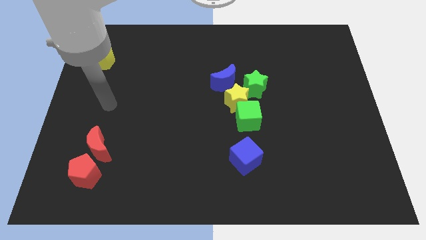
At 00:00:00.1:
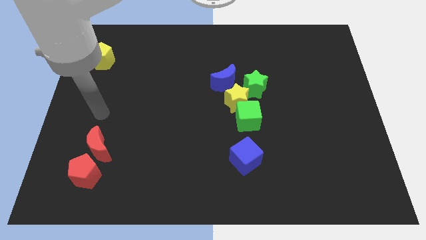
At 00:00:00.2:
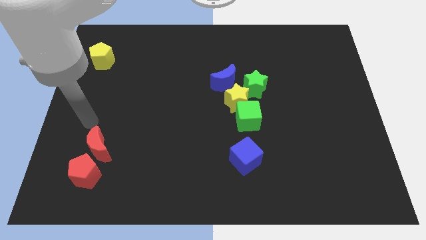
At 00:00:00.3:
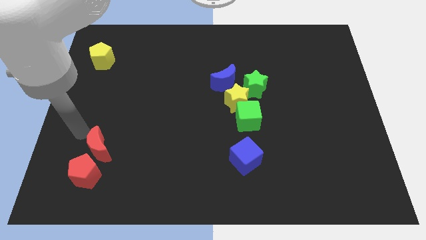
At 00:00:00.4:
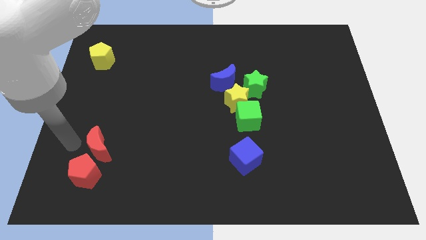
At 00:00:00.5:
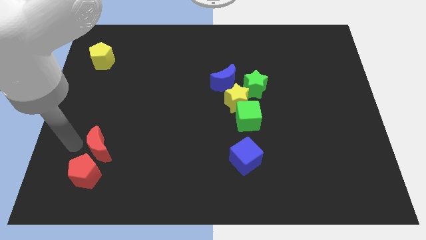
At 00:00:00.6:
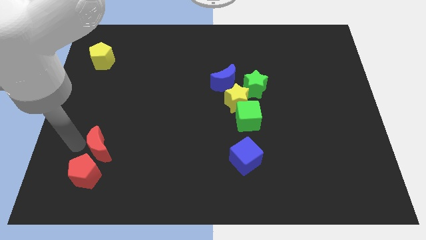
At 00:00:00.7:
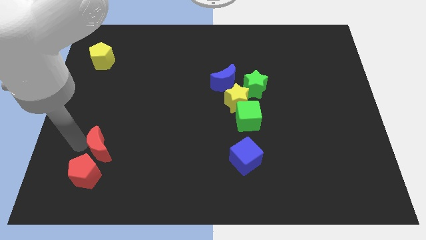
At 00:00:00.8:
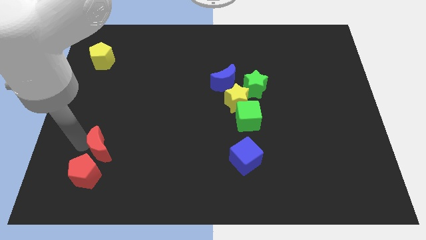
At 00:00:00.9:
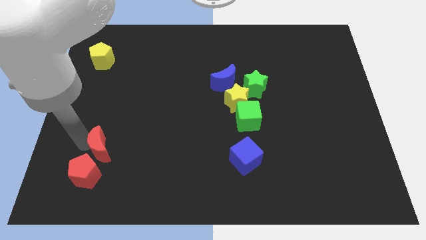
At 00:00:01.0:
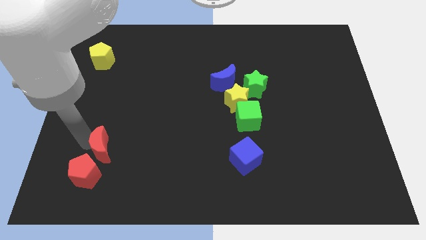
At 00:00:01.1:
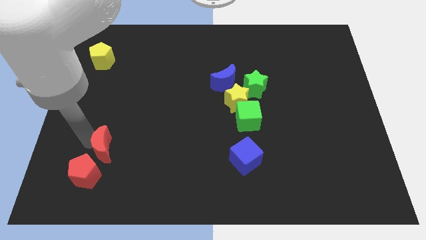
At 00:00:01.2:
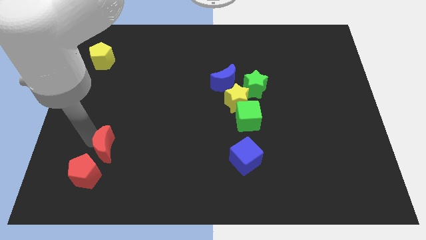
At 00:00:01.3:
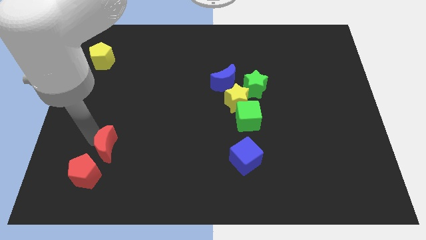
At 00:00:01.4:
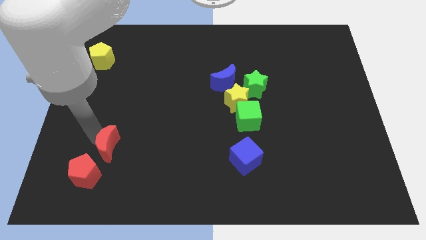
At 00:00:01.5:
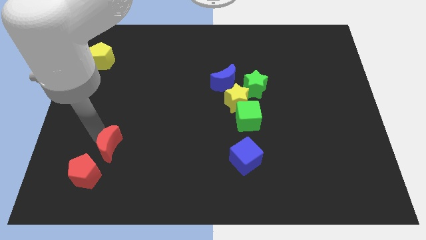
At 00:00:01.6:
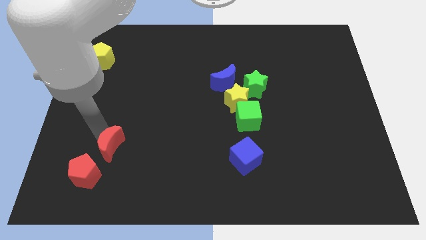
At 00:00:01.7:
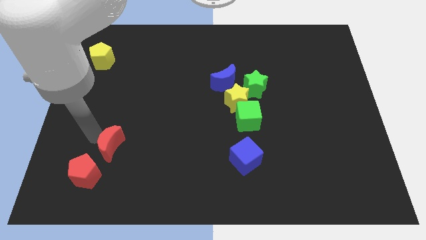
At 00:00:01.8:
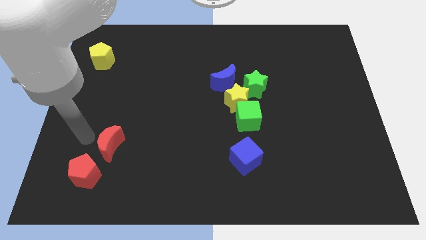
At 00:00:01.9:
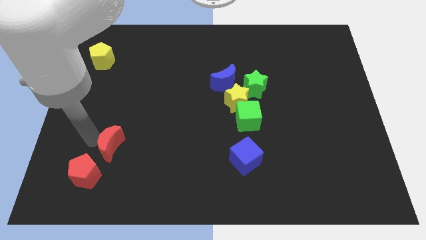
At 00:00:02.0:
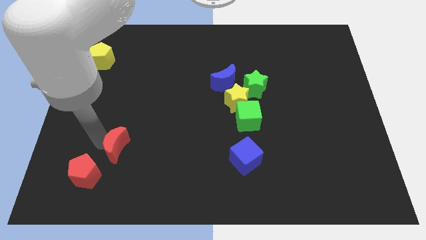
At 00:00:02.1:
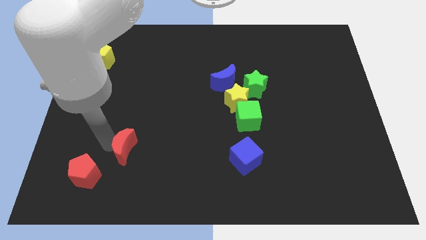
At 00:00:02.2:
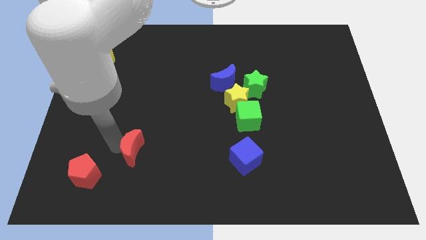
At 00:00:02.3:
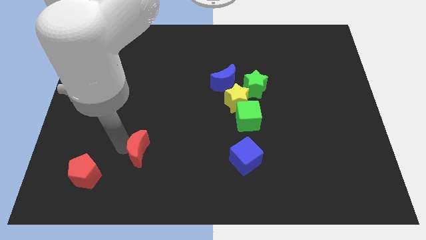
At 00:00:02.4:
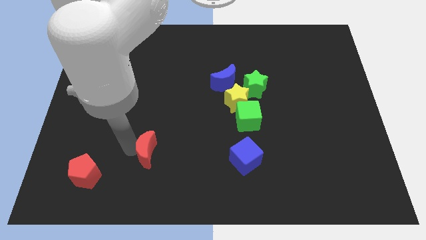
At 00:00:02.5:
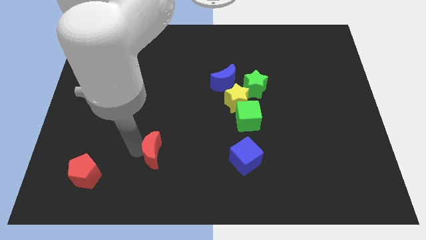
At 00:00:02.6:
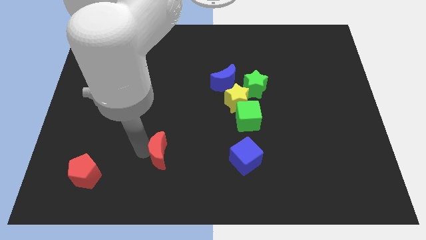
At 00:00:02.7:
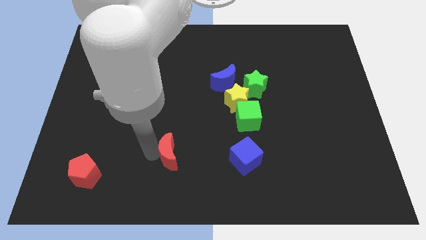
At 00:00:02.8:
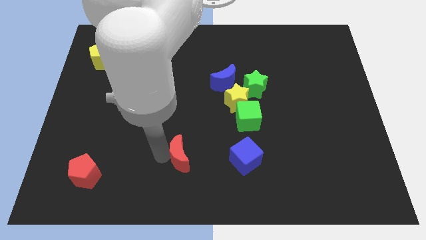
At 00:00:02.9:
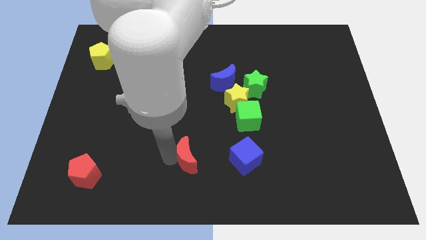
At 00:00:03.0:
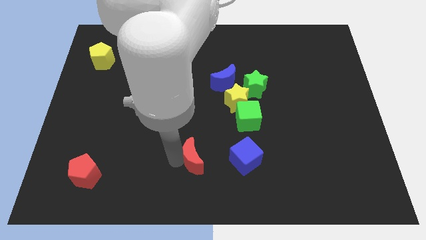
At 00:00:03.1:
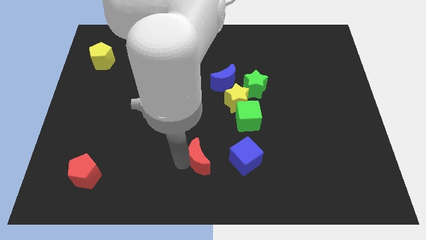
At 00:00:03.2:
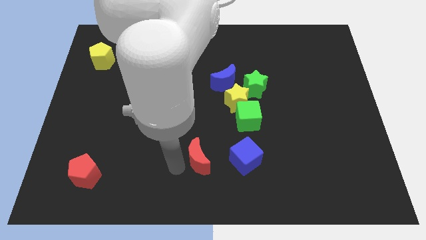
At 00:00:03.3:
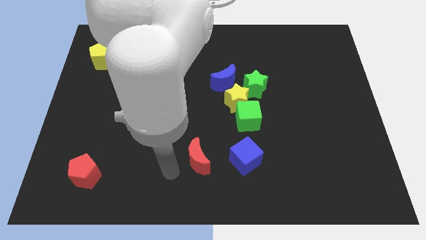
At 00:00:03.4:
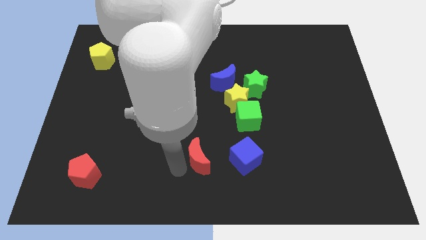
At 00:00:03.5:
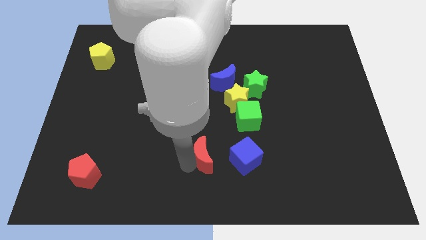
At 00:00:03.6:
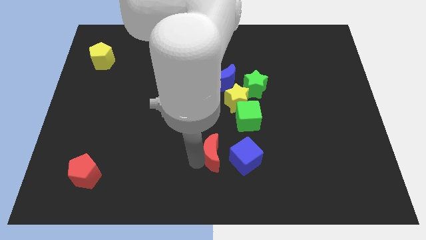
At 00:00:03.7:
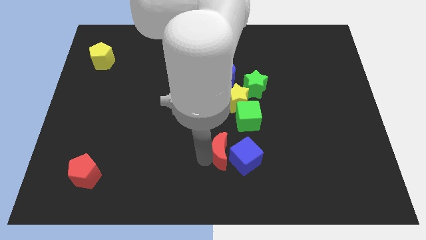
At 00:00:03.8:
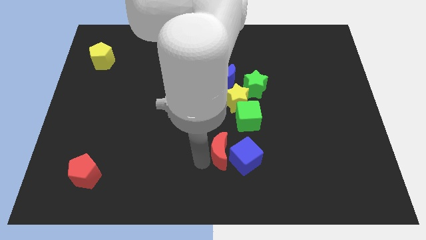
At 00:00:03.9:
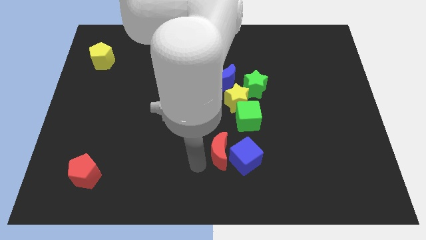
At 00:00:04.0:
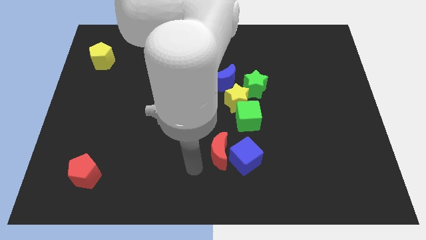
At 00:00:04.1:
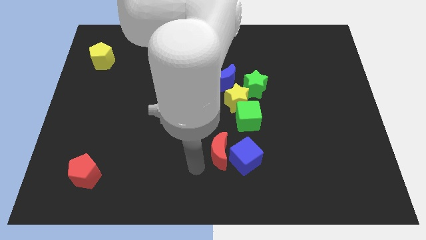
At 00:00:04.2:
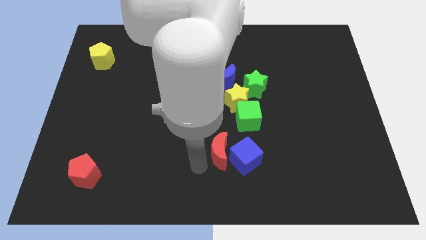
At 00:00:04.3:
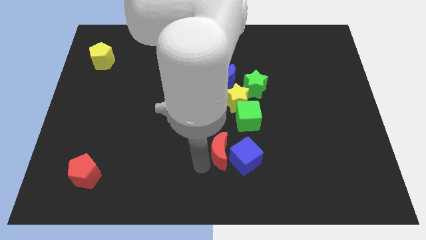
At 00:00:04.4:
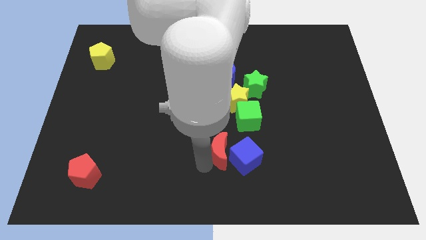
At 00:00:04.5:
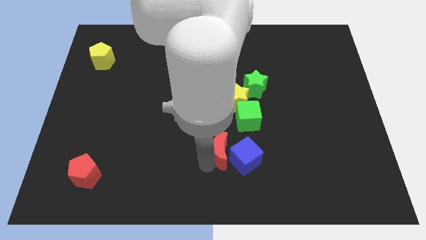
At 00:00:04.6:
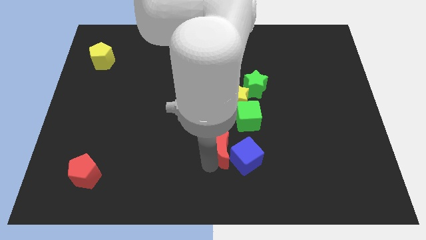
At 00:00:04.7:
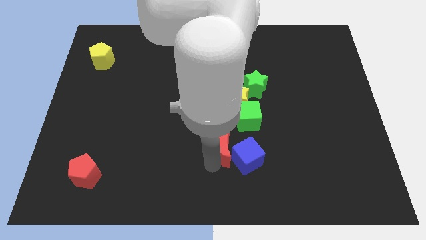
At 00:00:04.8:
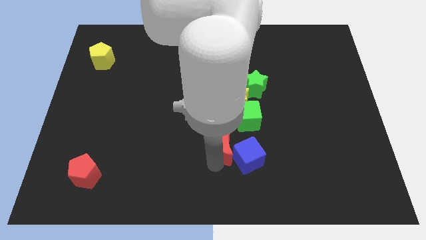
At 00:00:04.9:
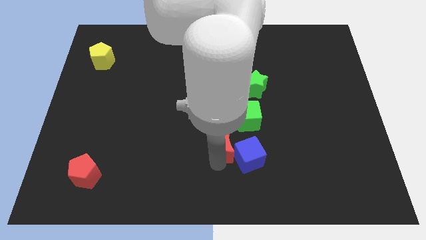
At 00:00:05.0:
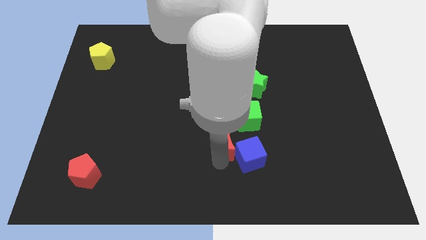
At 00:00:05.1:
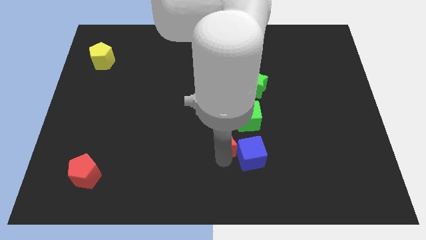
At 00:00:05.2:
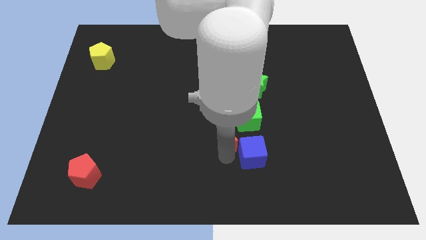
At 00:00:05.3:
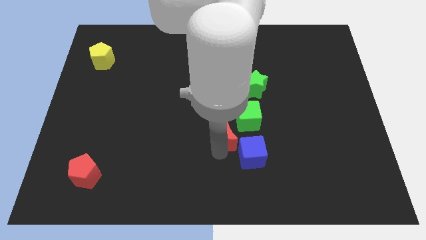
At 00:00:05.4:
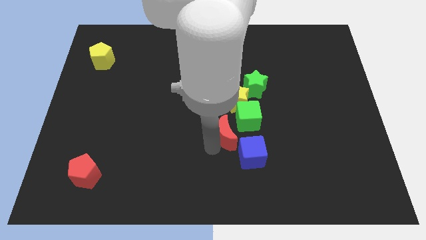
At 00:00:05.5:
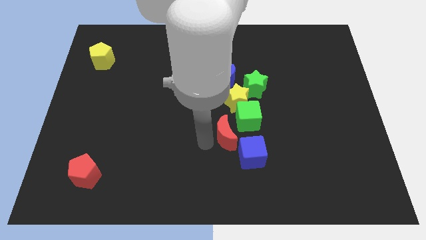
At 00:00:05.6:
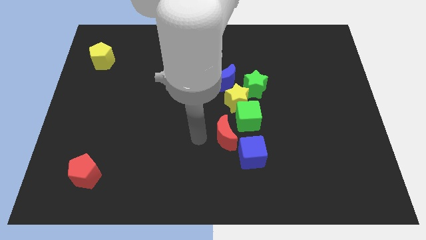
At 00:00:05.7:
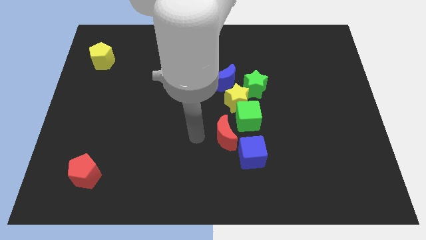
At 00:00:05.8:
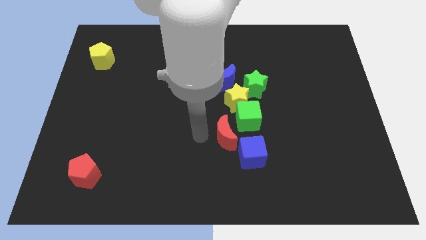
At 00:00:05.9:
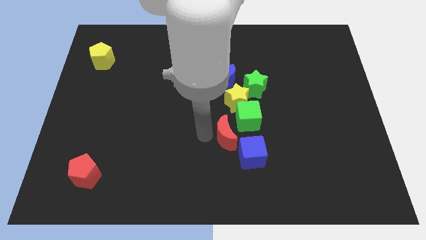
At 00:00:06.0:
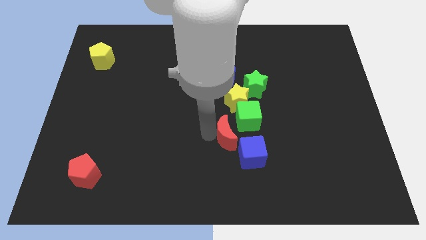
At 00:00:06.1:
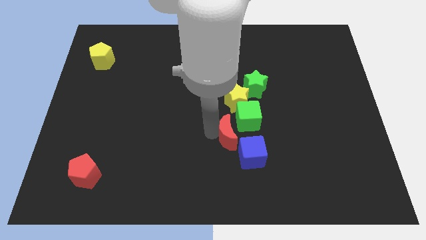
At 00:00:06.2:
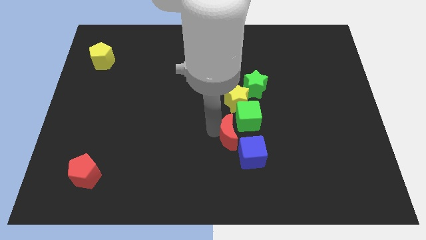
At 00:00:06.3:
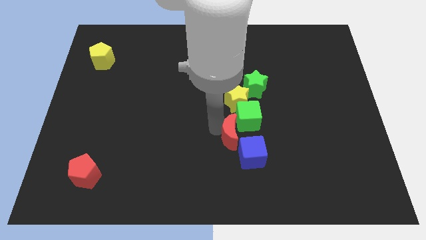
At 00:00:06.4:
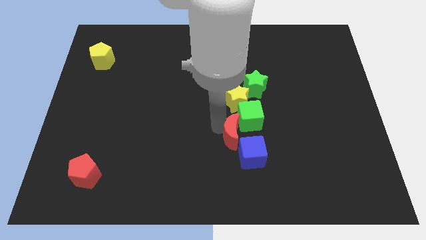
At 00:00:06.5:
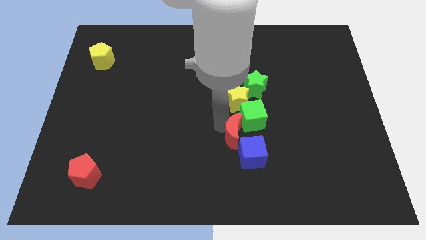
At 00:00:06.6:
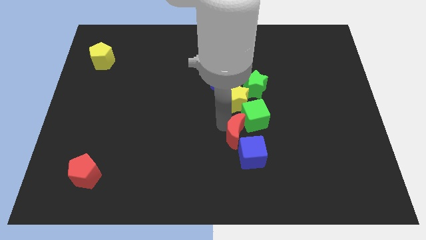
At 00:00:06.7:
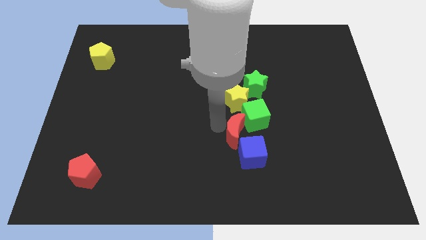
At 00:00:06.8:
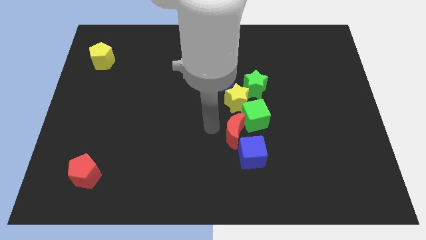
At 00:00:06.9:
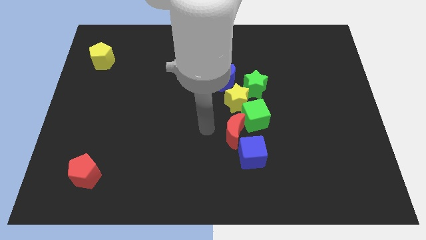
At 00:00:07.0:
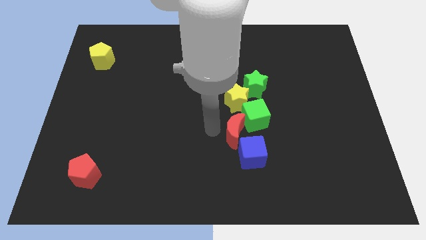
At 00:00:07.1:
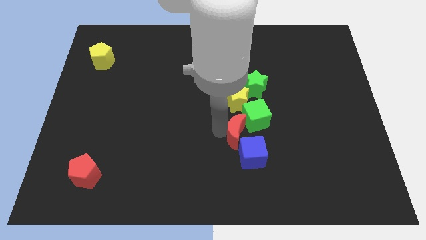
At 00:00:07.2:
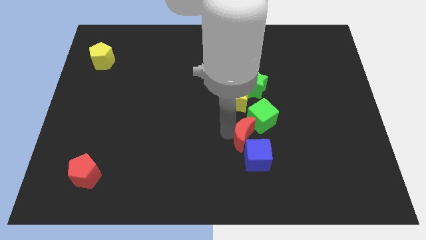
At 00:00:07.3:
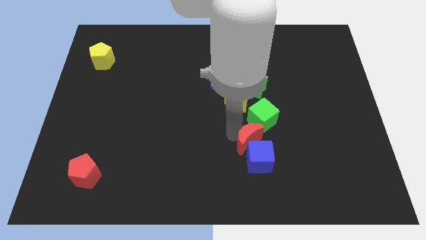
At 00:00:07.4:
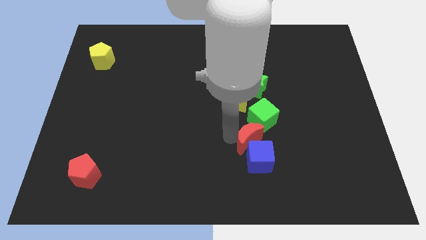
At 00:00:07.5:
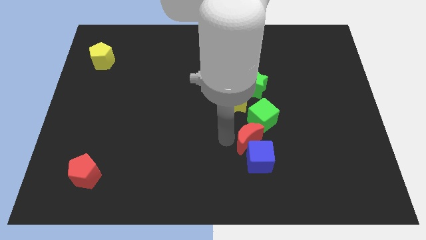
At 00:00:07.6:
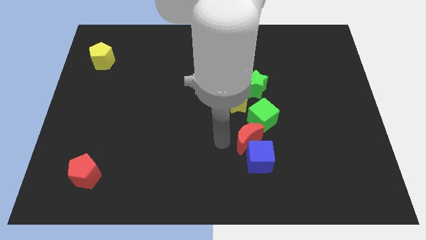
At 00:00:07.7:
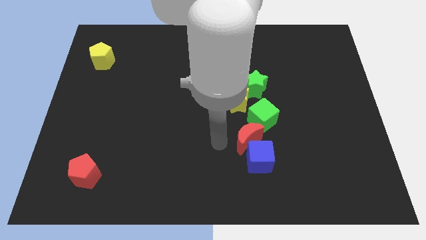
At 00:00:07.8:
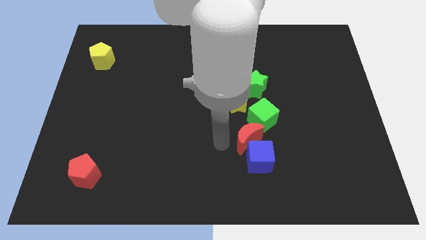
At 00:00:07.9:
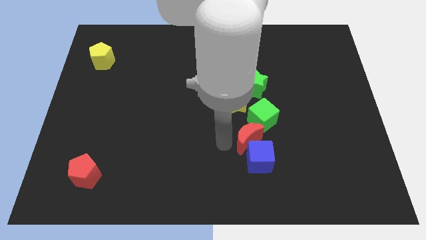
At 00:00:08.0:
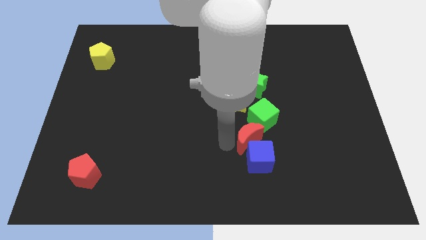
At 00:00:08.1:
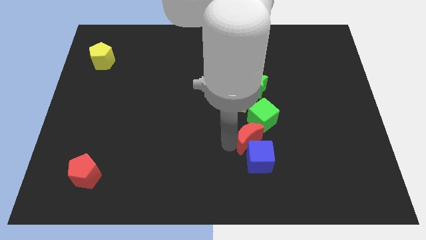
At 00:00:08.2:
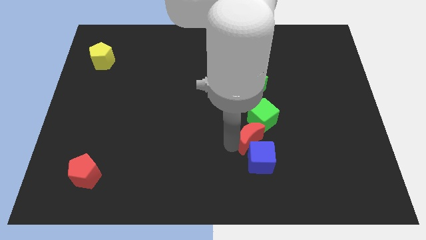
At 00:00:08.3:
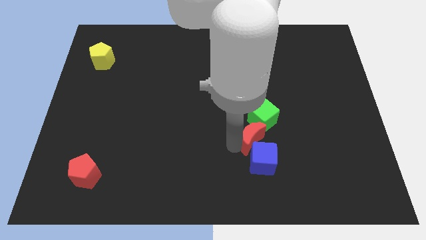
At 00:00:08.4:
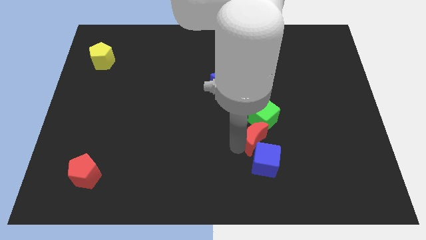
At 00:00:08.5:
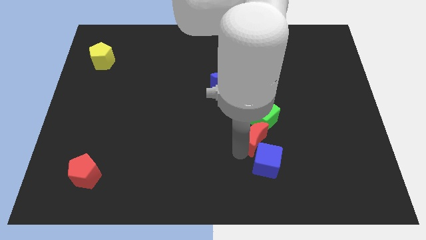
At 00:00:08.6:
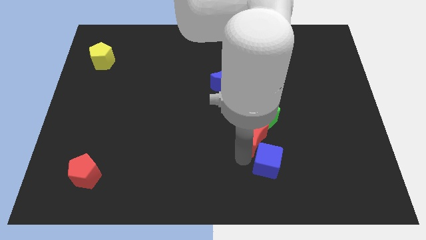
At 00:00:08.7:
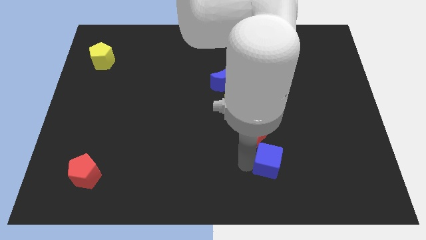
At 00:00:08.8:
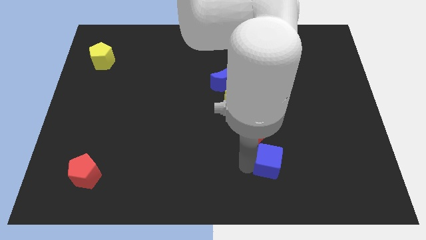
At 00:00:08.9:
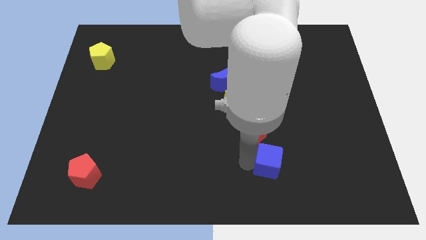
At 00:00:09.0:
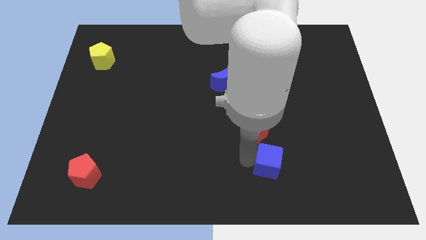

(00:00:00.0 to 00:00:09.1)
slide the red moon diagonally down and to the right of the yellow star
